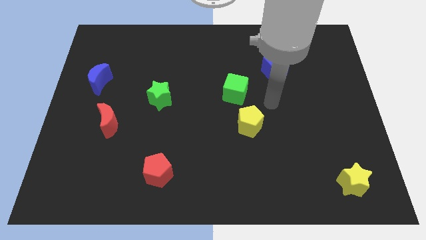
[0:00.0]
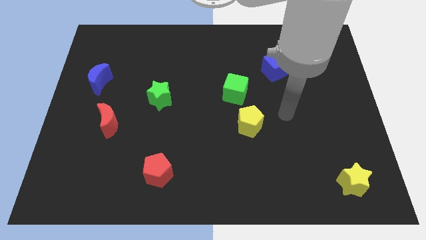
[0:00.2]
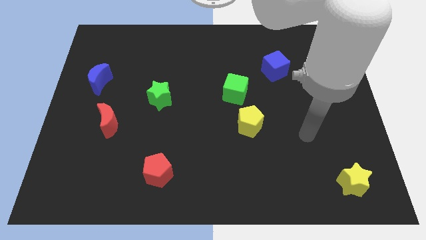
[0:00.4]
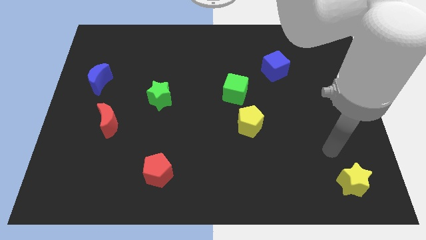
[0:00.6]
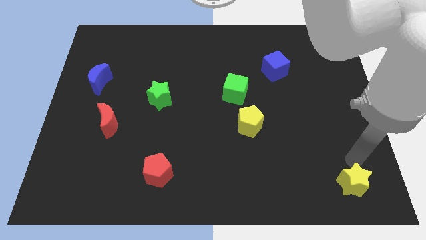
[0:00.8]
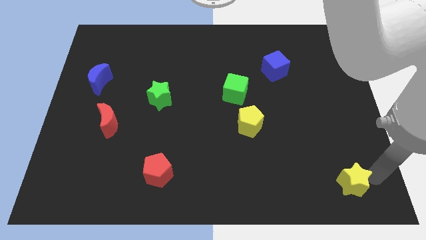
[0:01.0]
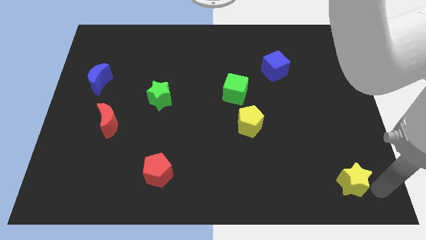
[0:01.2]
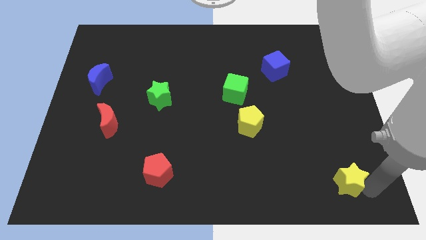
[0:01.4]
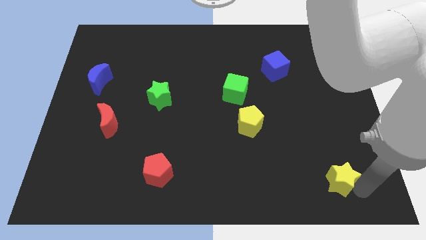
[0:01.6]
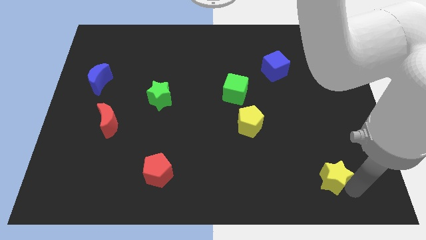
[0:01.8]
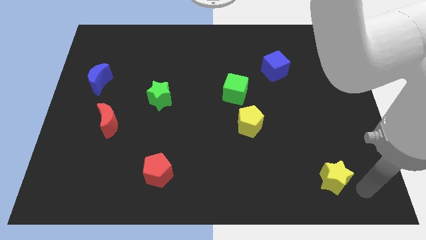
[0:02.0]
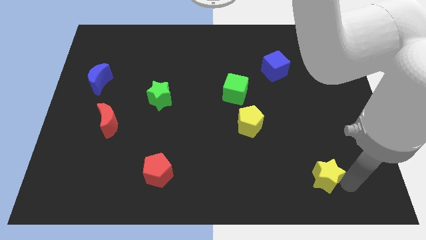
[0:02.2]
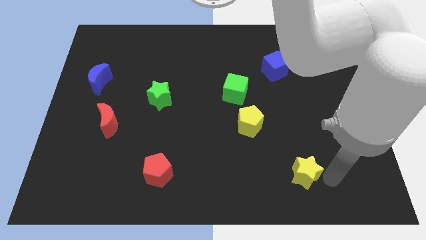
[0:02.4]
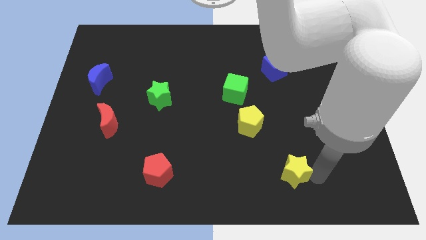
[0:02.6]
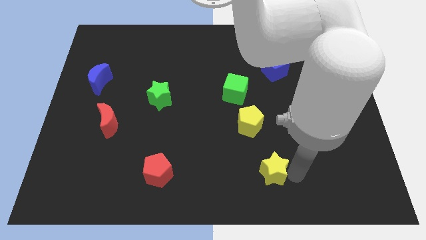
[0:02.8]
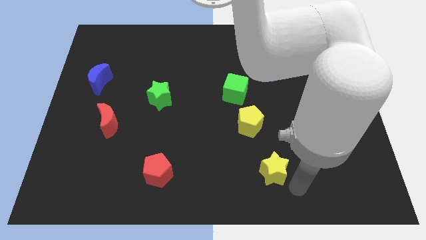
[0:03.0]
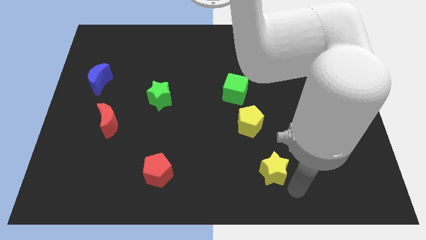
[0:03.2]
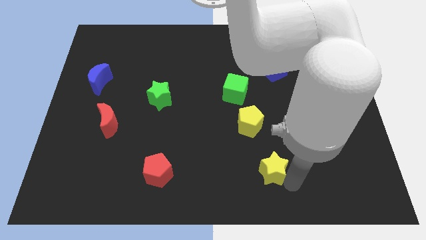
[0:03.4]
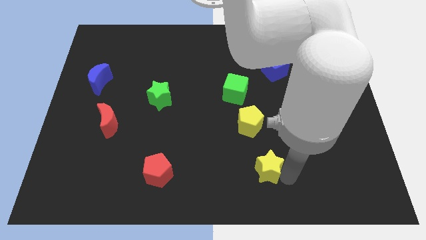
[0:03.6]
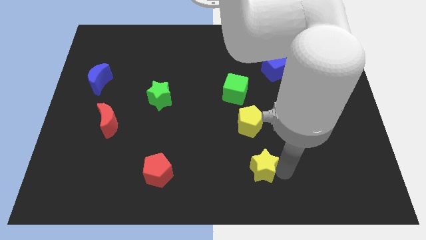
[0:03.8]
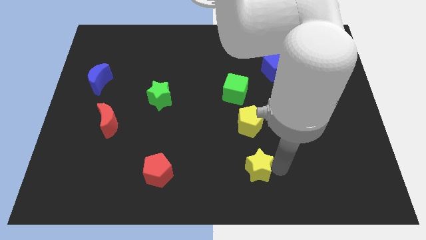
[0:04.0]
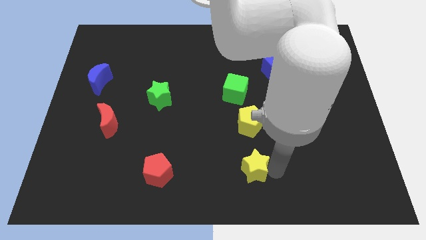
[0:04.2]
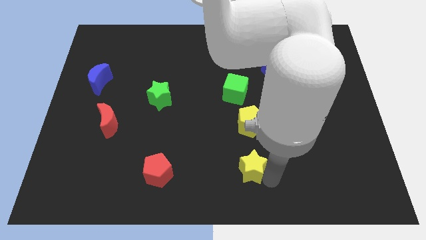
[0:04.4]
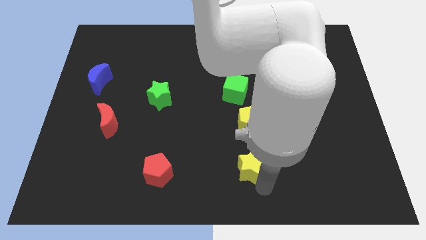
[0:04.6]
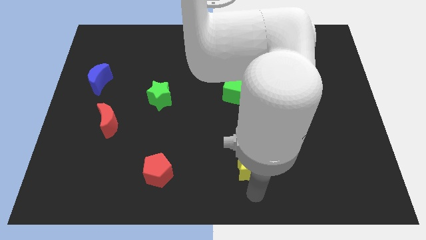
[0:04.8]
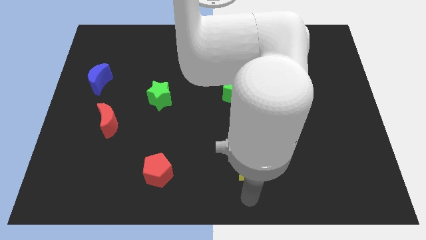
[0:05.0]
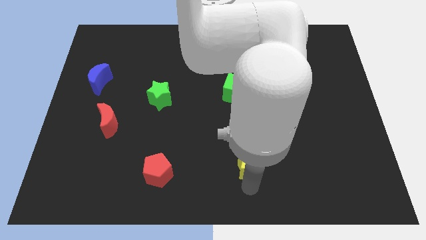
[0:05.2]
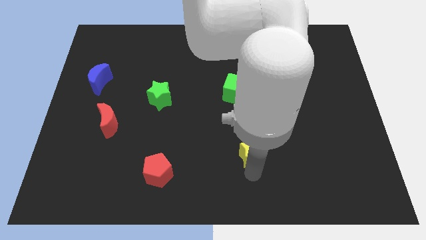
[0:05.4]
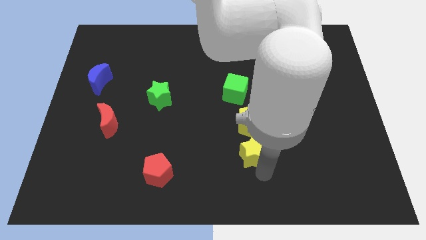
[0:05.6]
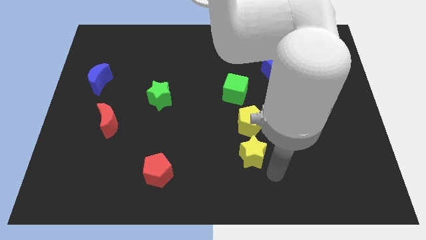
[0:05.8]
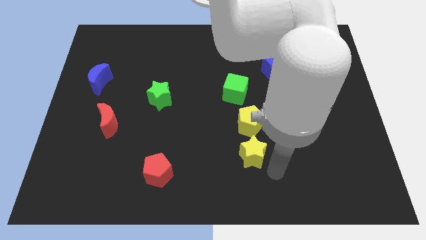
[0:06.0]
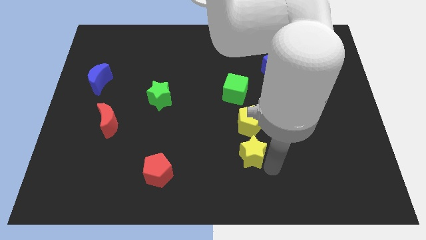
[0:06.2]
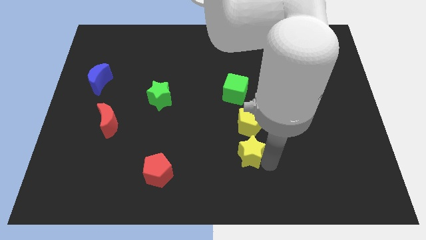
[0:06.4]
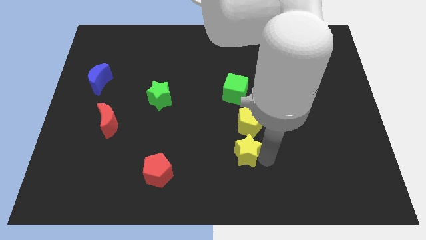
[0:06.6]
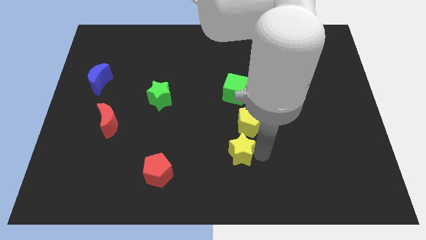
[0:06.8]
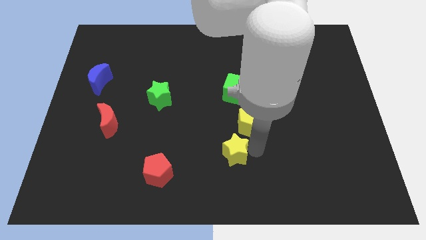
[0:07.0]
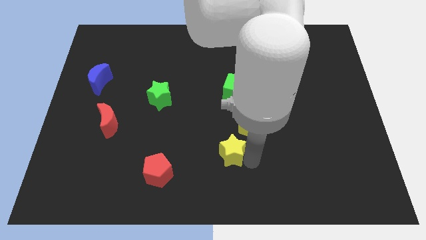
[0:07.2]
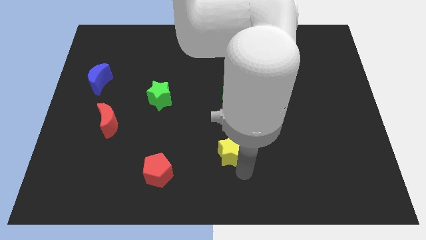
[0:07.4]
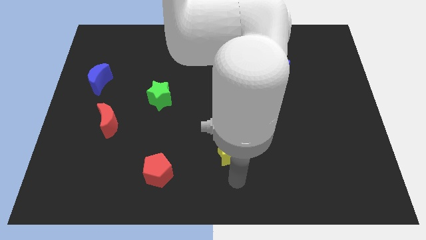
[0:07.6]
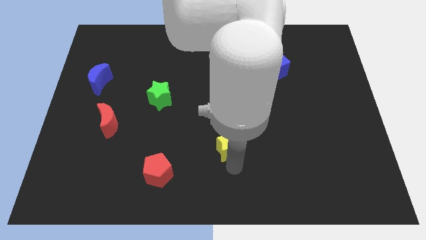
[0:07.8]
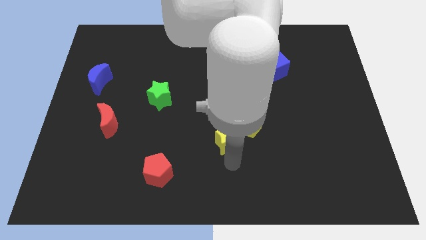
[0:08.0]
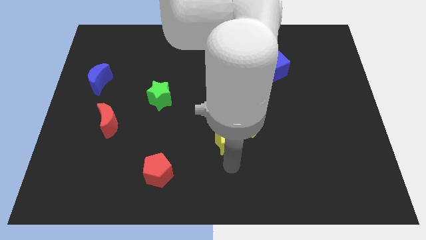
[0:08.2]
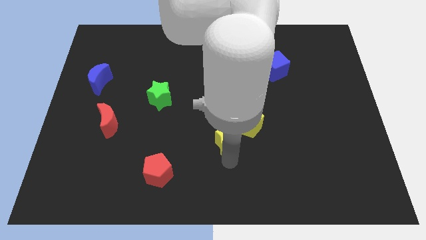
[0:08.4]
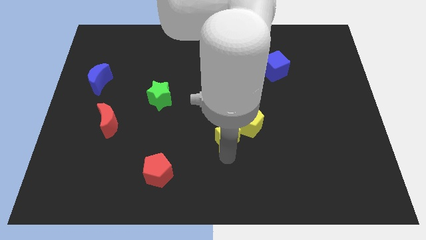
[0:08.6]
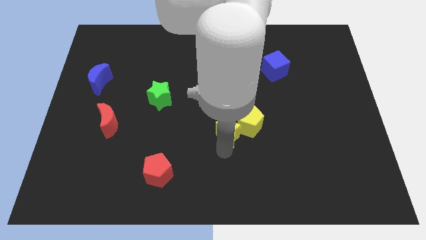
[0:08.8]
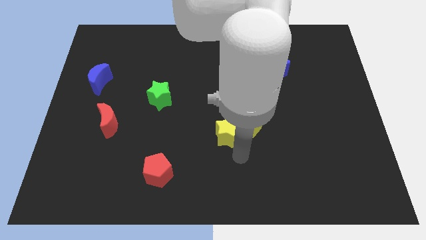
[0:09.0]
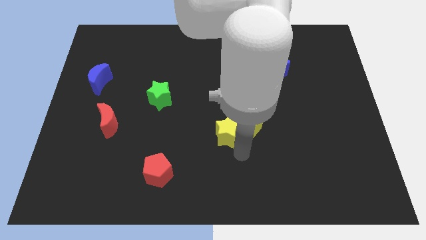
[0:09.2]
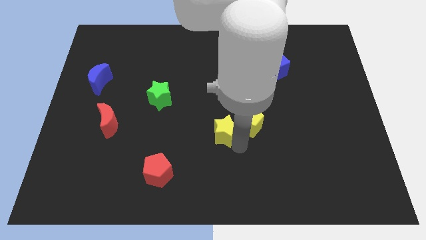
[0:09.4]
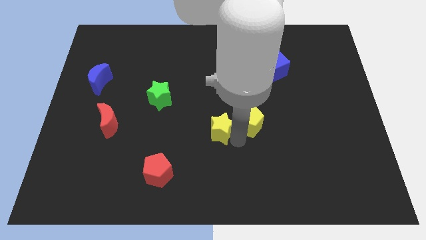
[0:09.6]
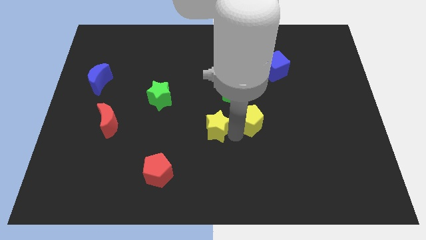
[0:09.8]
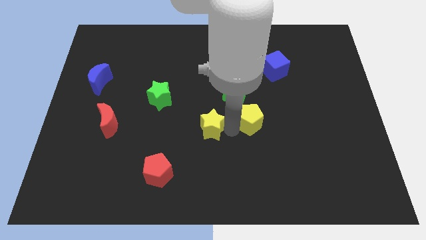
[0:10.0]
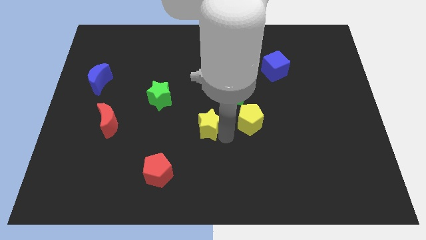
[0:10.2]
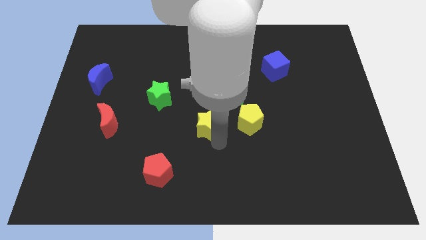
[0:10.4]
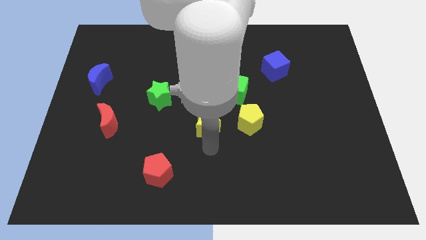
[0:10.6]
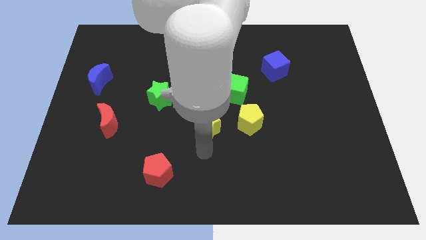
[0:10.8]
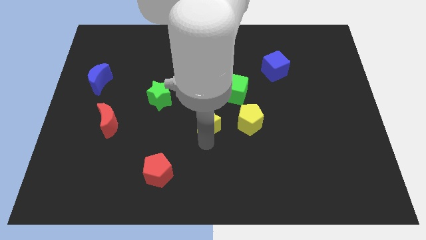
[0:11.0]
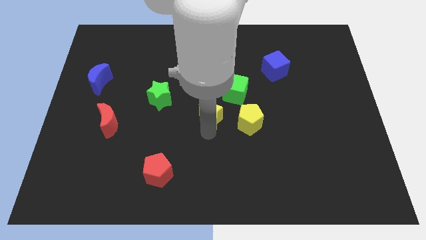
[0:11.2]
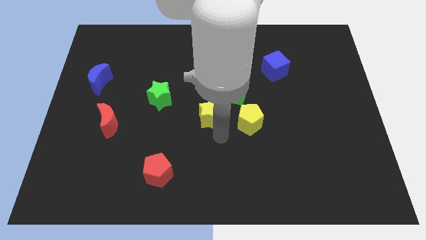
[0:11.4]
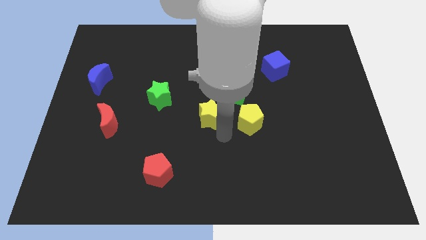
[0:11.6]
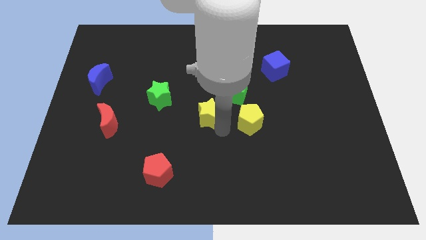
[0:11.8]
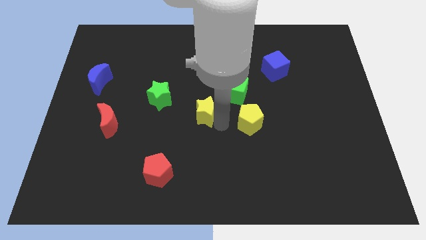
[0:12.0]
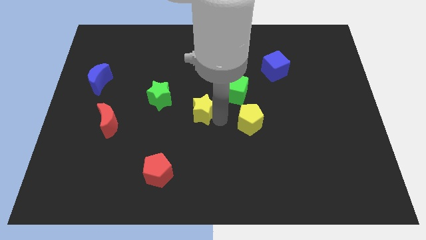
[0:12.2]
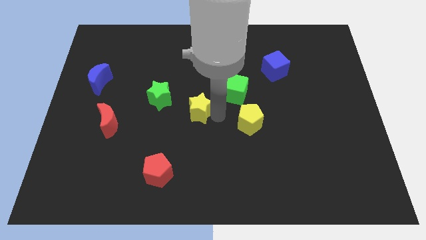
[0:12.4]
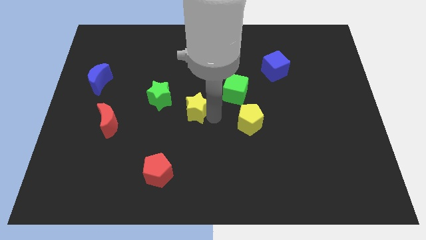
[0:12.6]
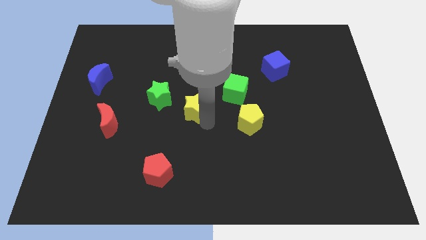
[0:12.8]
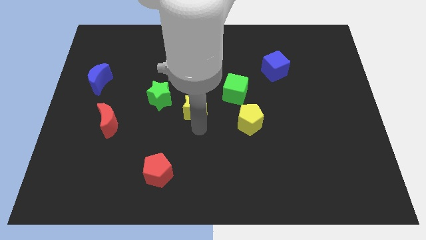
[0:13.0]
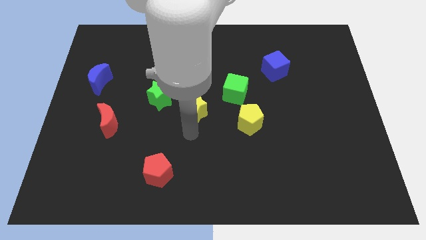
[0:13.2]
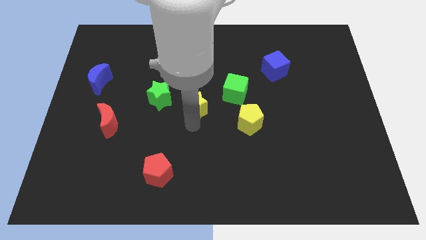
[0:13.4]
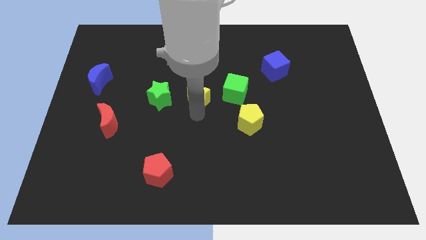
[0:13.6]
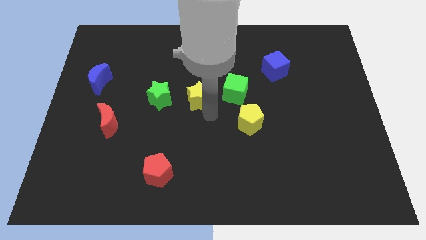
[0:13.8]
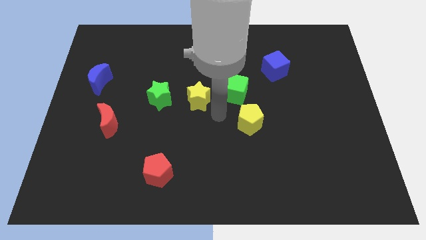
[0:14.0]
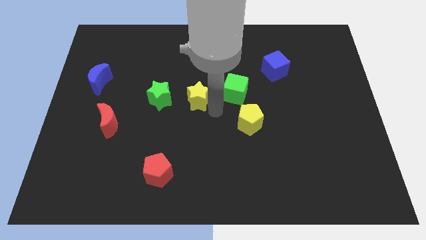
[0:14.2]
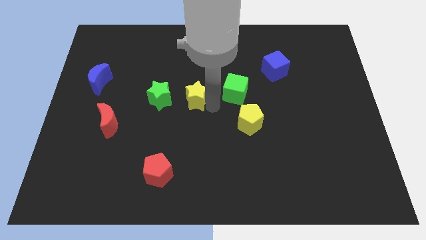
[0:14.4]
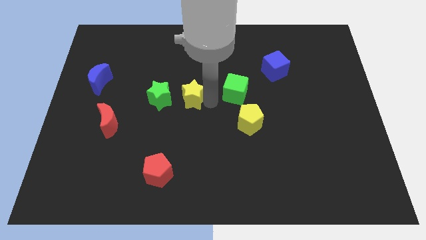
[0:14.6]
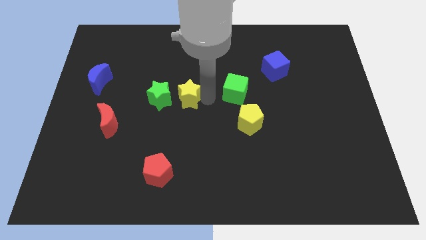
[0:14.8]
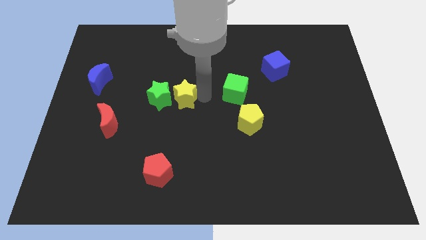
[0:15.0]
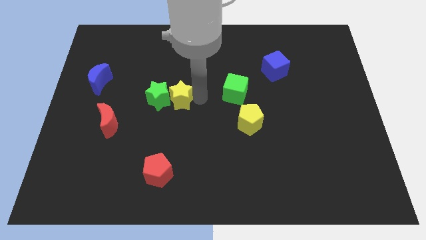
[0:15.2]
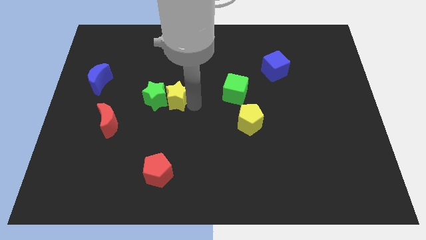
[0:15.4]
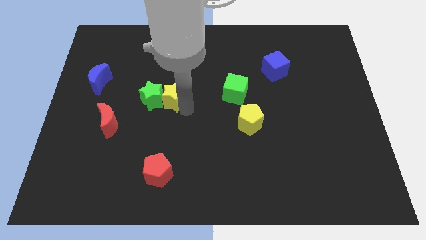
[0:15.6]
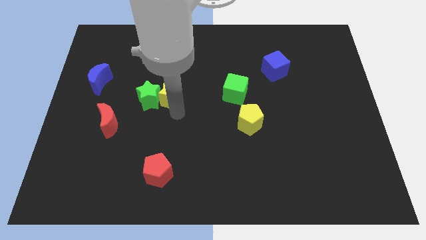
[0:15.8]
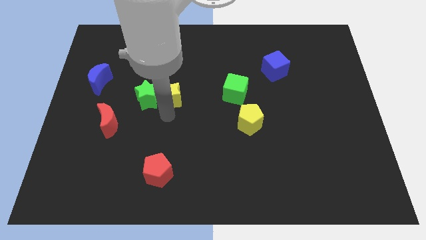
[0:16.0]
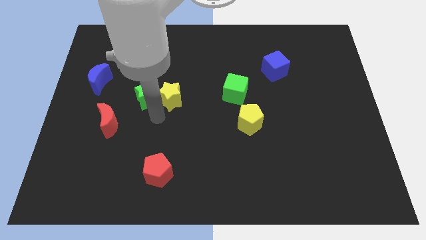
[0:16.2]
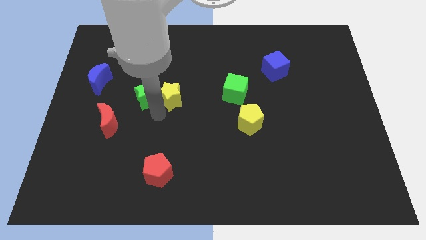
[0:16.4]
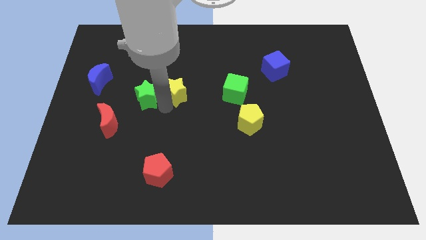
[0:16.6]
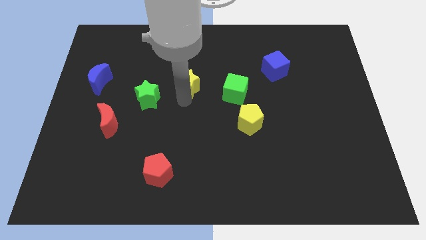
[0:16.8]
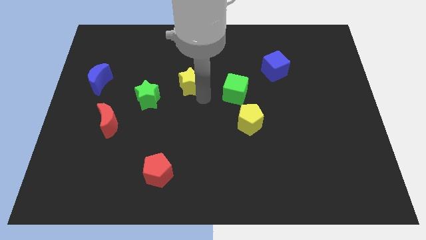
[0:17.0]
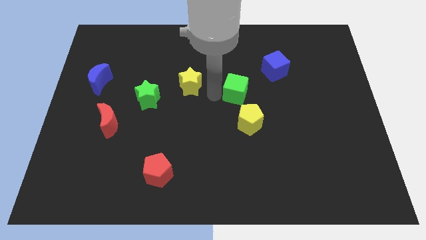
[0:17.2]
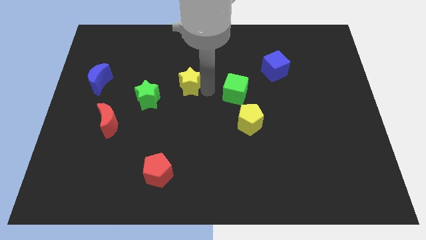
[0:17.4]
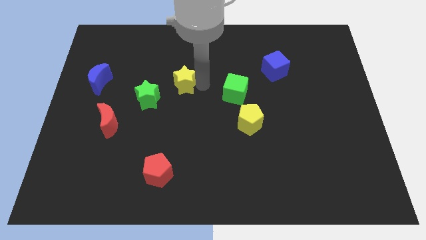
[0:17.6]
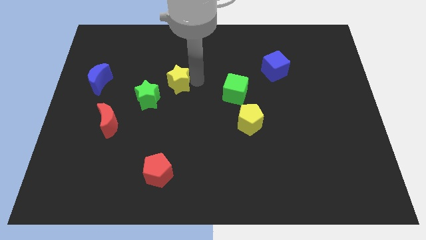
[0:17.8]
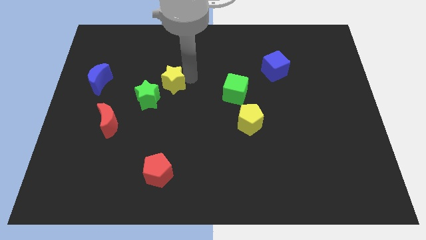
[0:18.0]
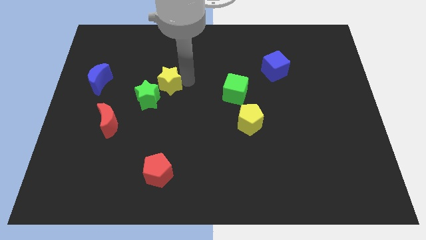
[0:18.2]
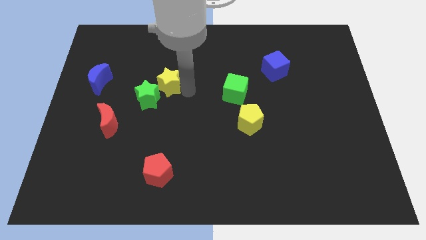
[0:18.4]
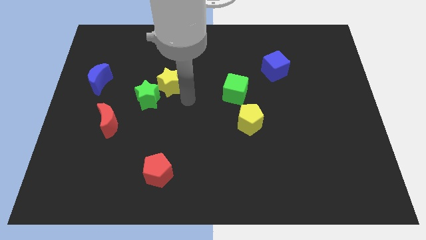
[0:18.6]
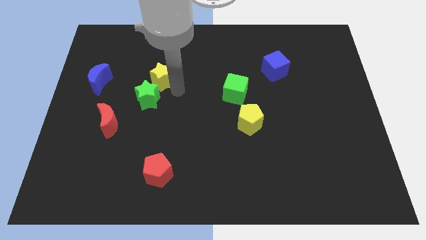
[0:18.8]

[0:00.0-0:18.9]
move the yellow star above the green star
